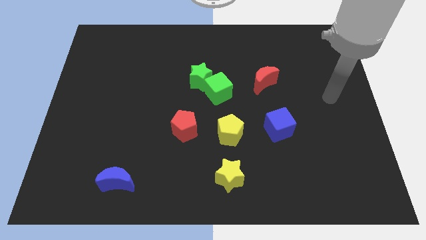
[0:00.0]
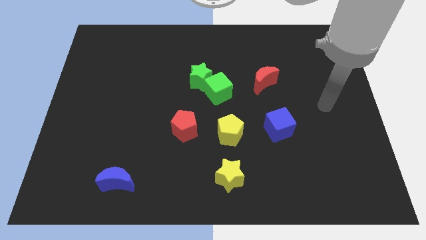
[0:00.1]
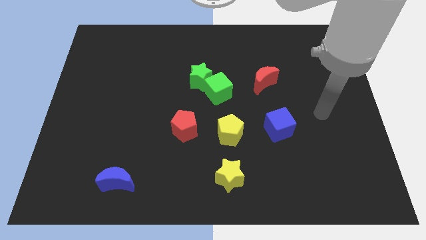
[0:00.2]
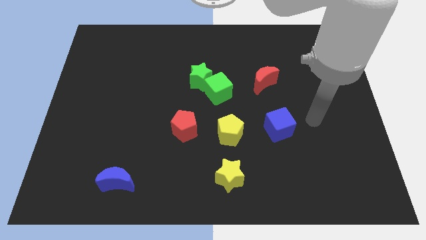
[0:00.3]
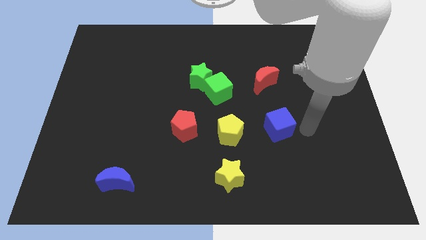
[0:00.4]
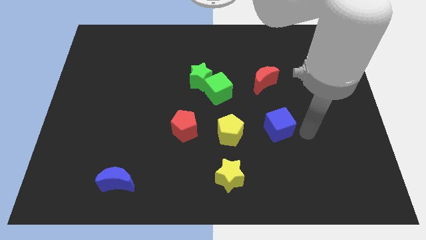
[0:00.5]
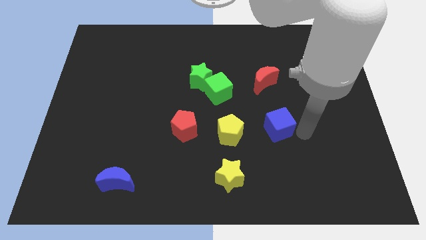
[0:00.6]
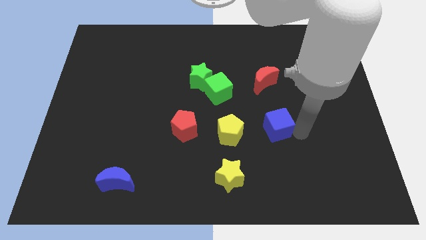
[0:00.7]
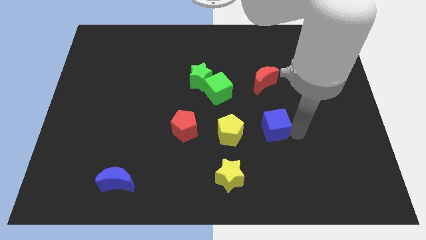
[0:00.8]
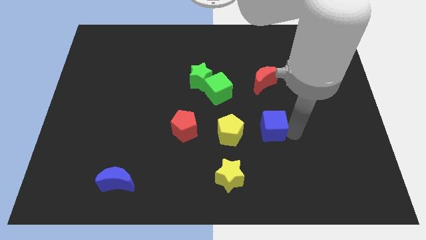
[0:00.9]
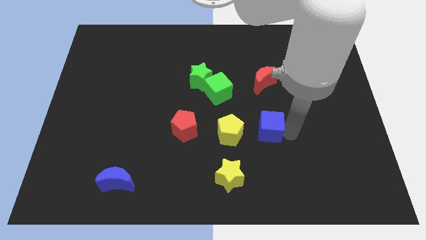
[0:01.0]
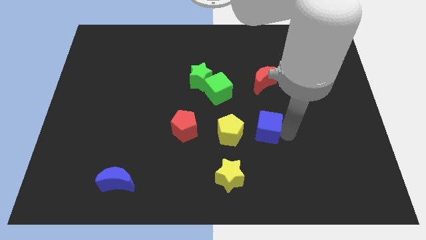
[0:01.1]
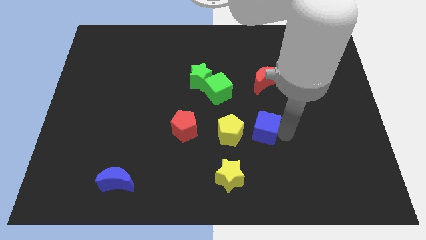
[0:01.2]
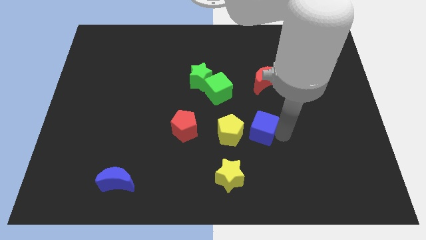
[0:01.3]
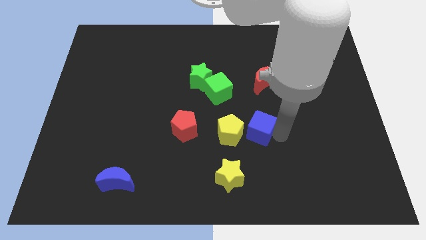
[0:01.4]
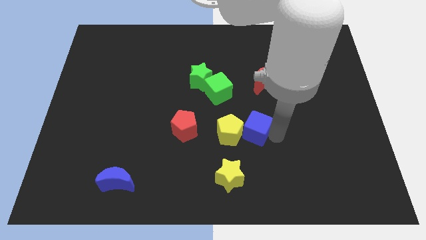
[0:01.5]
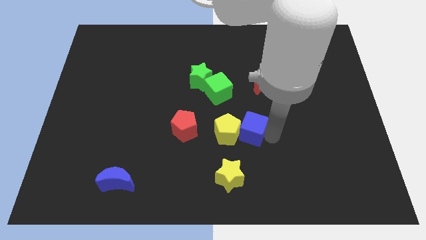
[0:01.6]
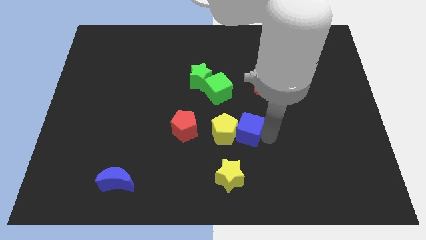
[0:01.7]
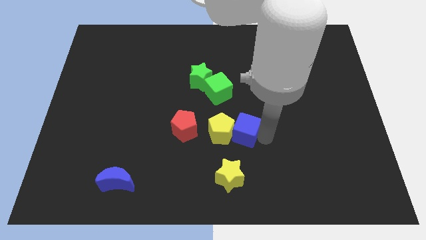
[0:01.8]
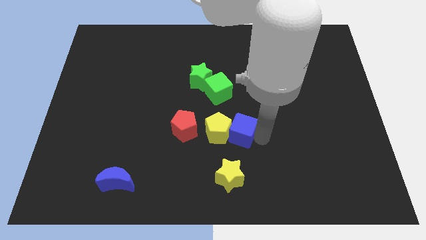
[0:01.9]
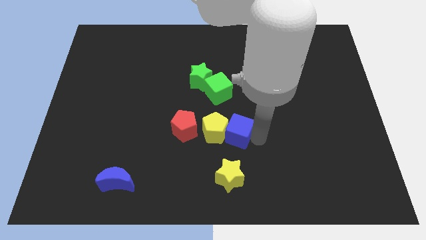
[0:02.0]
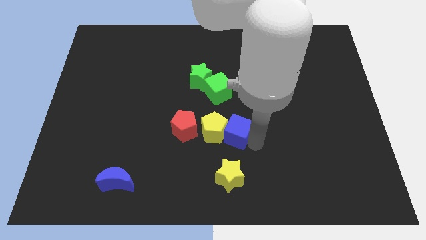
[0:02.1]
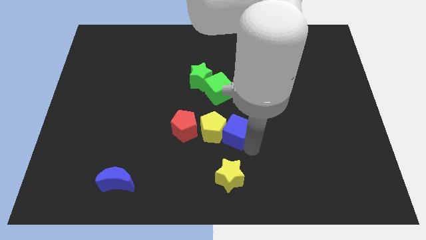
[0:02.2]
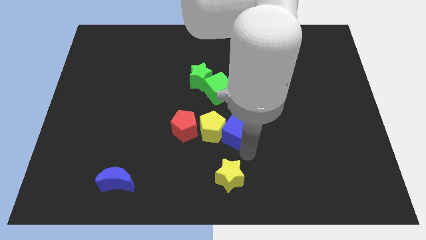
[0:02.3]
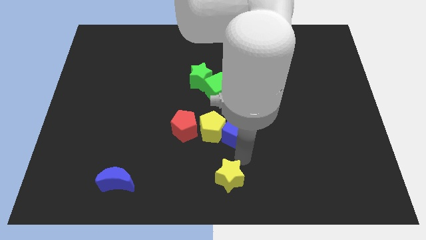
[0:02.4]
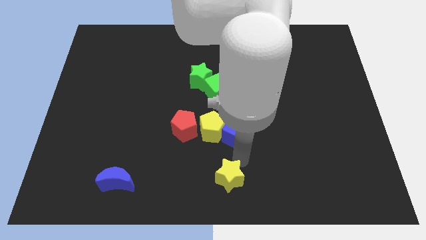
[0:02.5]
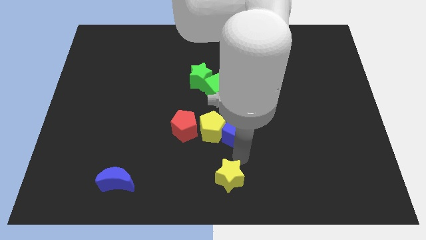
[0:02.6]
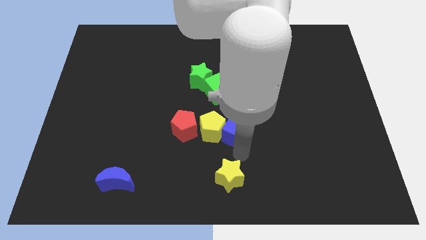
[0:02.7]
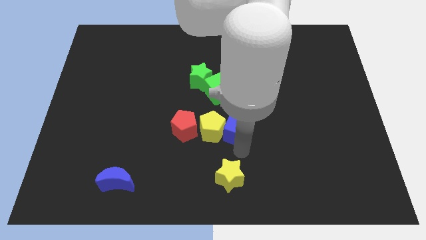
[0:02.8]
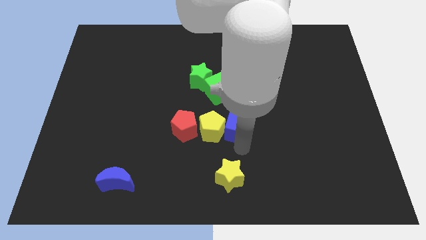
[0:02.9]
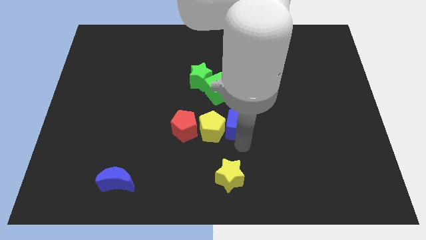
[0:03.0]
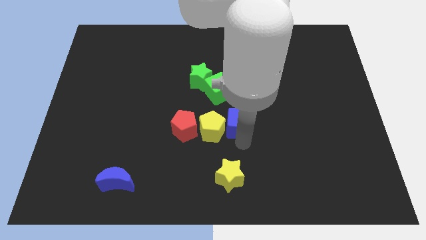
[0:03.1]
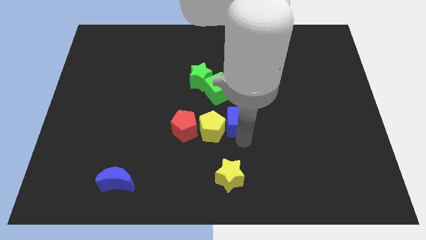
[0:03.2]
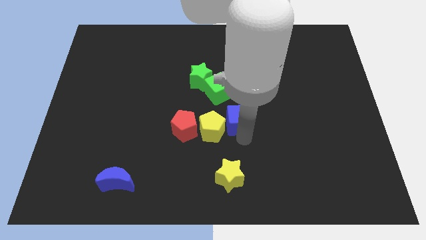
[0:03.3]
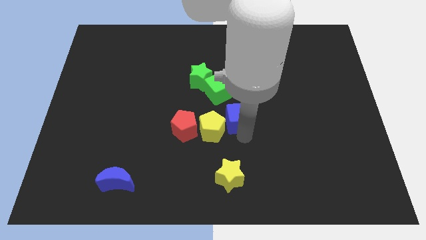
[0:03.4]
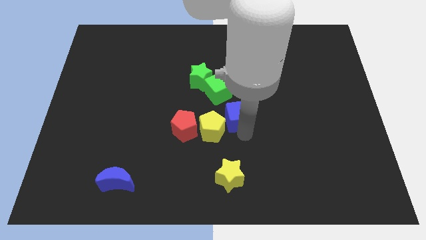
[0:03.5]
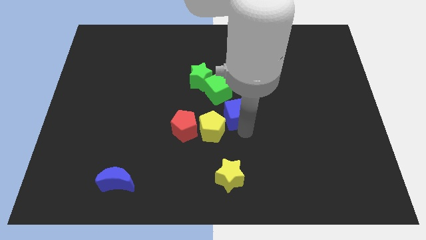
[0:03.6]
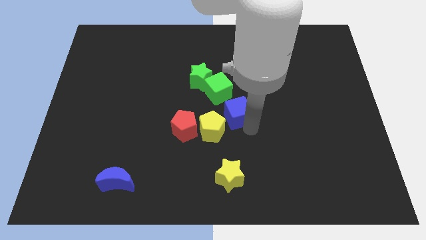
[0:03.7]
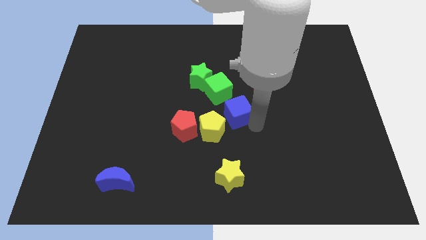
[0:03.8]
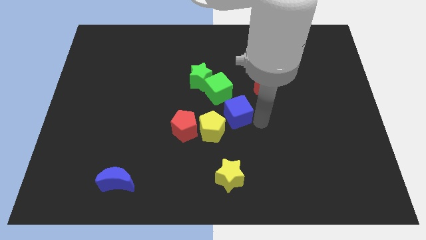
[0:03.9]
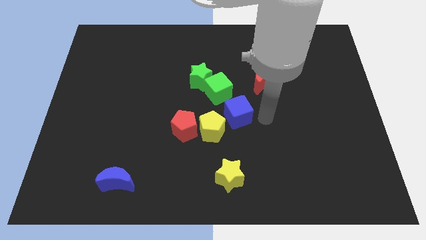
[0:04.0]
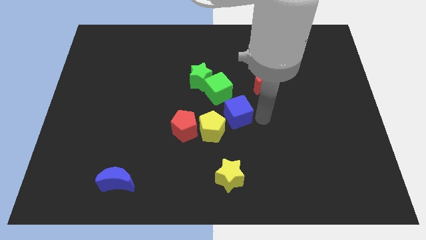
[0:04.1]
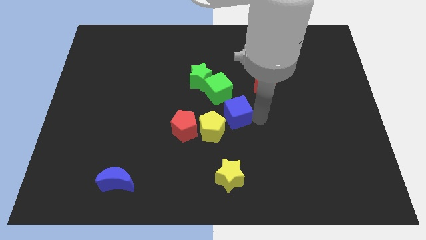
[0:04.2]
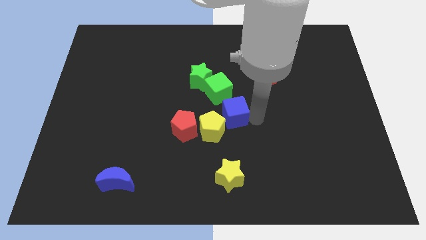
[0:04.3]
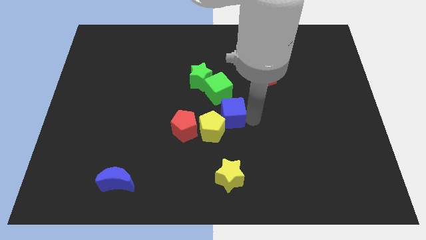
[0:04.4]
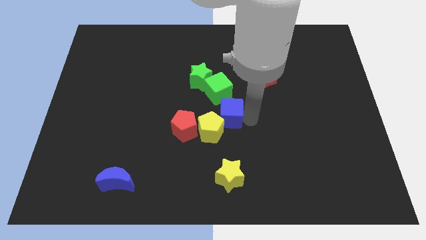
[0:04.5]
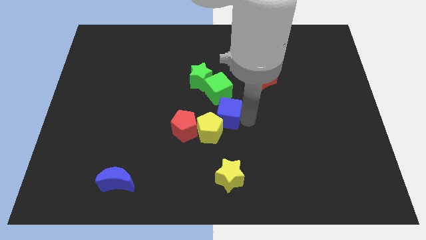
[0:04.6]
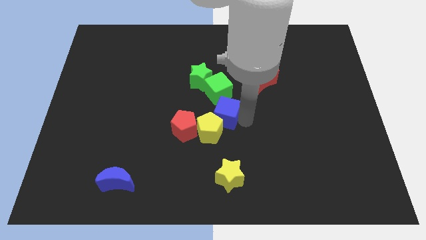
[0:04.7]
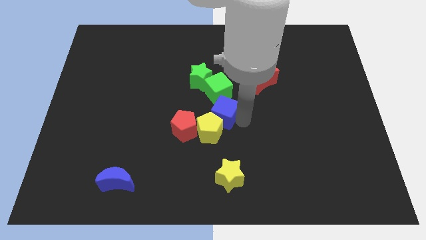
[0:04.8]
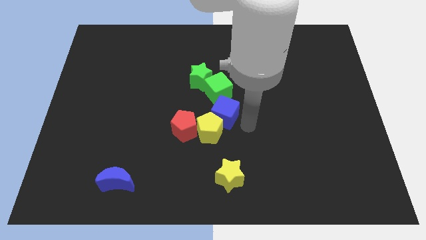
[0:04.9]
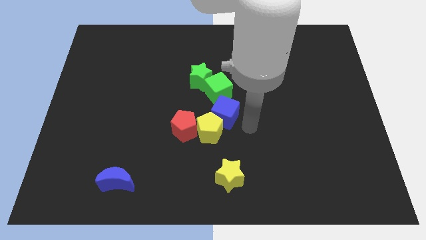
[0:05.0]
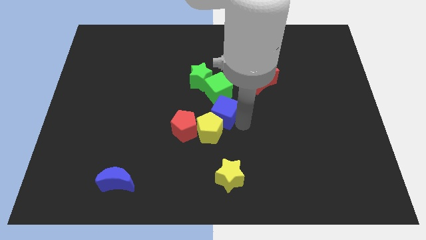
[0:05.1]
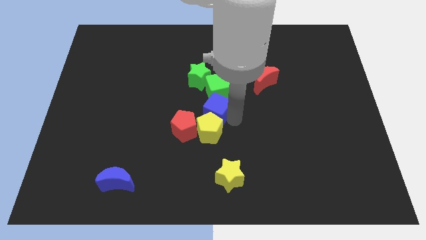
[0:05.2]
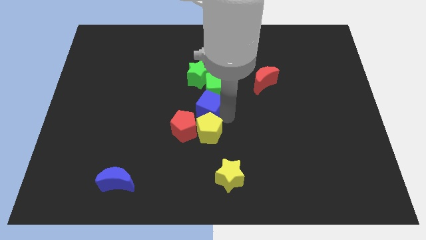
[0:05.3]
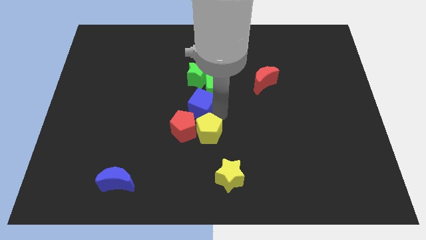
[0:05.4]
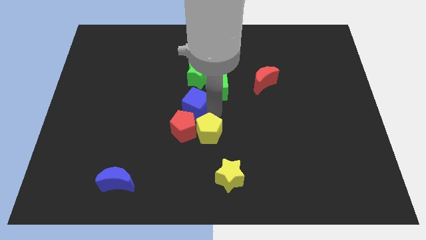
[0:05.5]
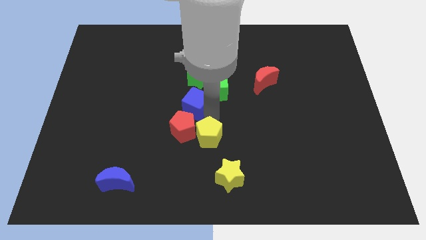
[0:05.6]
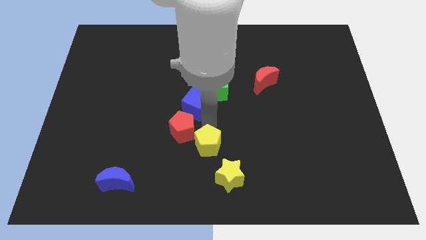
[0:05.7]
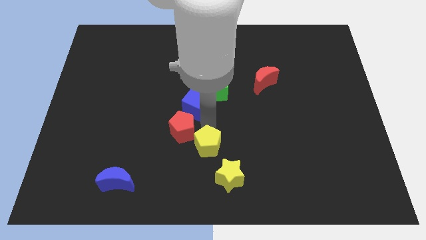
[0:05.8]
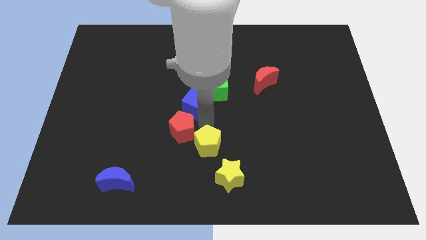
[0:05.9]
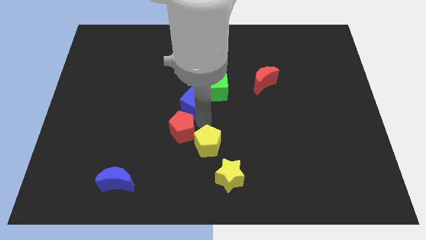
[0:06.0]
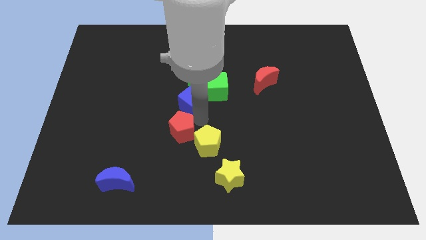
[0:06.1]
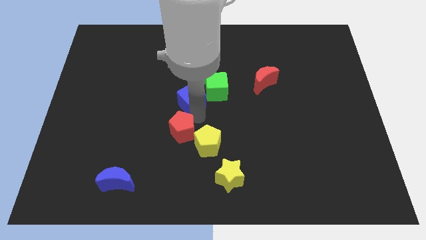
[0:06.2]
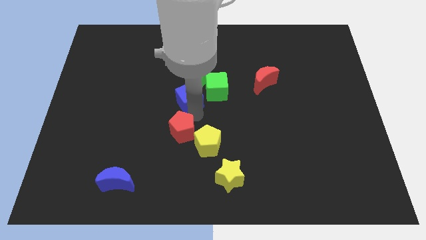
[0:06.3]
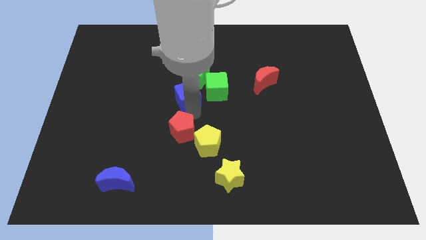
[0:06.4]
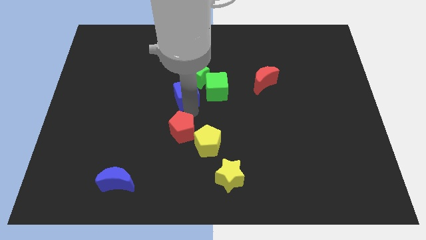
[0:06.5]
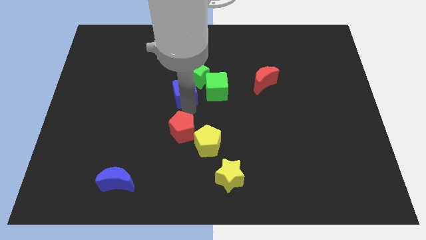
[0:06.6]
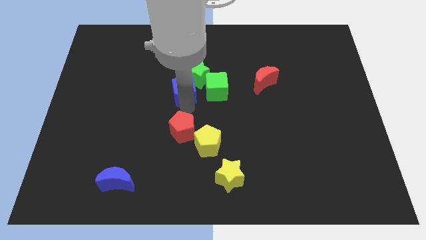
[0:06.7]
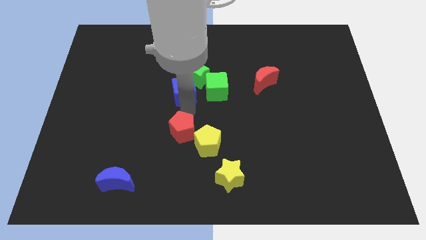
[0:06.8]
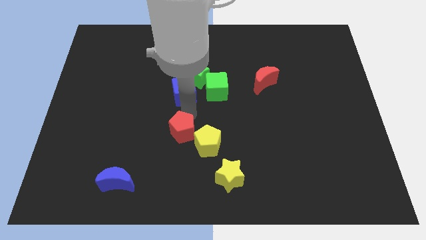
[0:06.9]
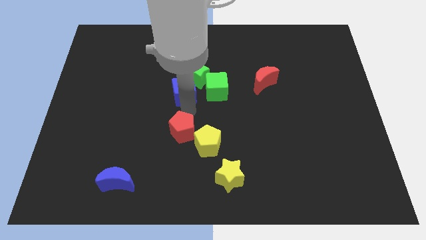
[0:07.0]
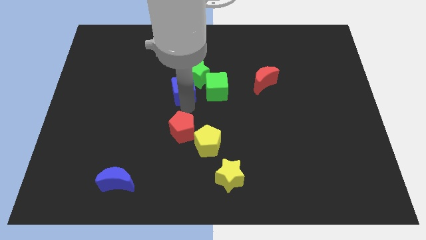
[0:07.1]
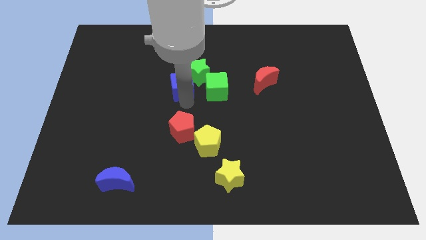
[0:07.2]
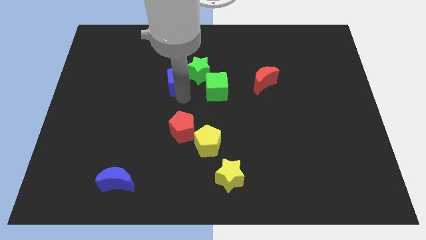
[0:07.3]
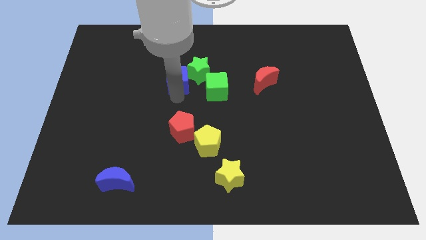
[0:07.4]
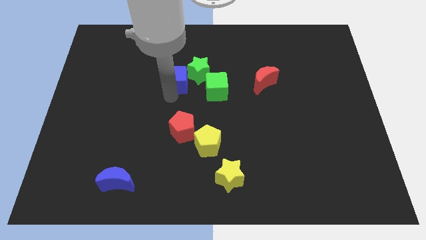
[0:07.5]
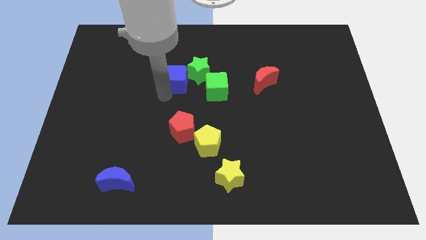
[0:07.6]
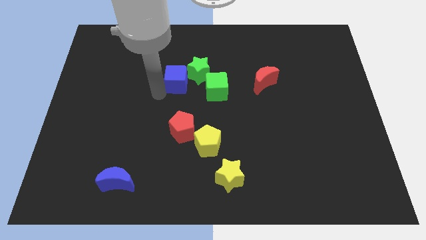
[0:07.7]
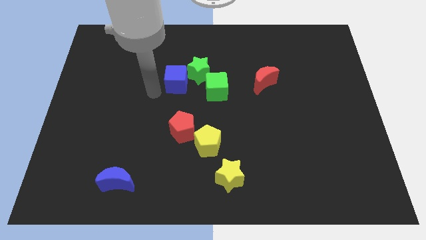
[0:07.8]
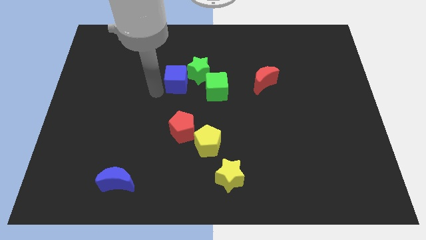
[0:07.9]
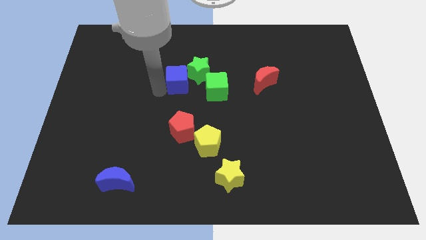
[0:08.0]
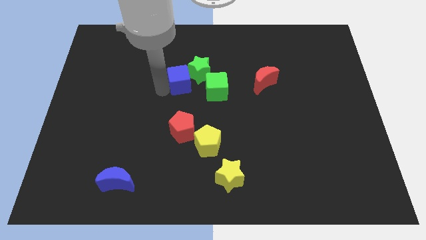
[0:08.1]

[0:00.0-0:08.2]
put the blue cube to the top left of the green cube
